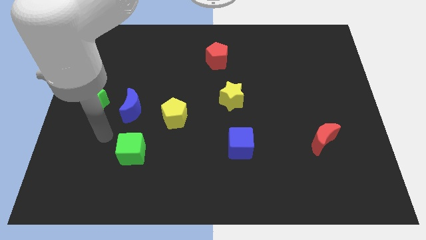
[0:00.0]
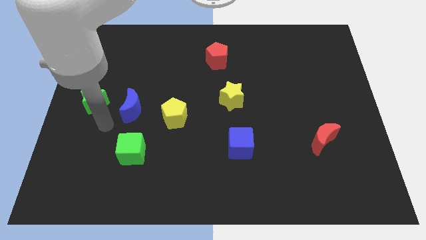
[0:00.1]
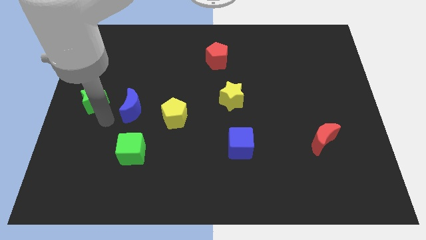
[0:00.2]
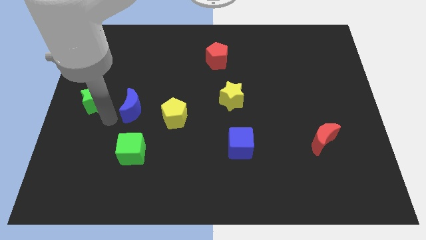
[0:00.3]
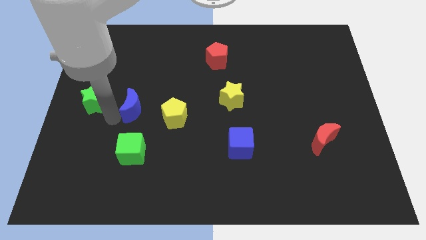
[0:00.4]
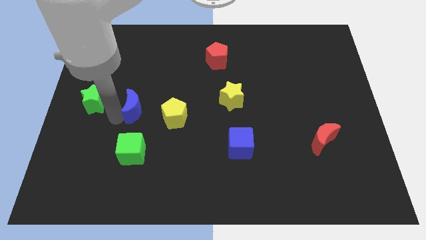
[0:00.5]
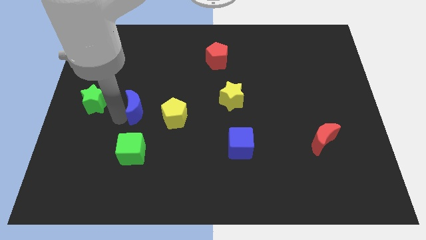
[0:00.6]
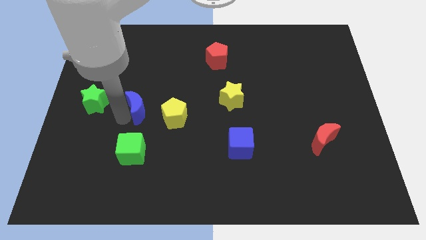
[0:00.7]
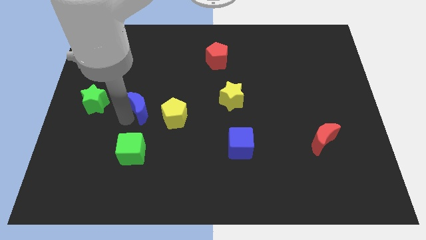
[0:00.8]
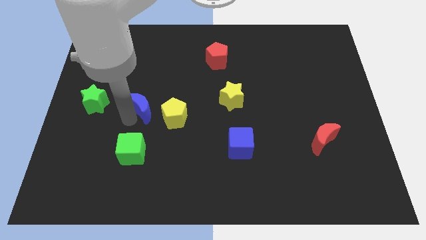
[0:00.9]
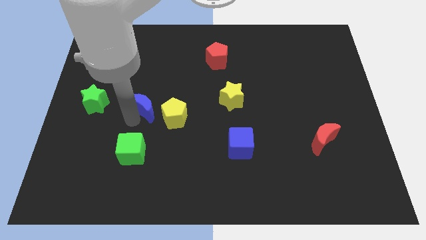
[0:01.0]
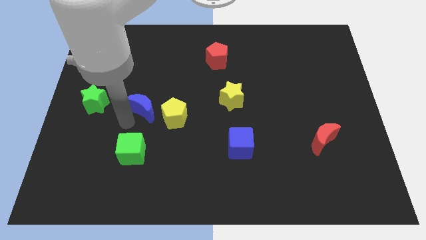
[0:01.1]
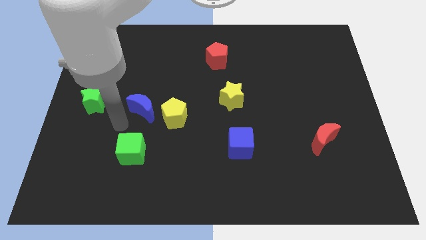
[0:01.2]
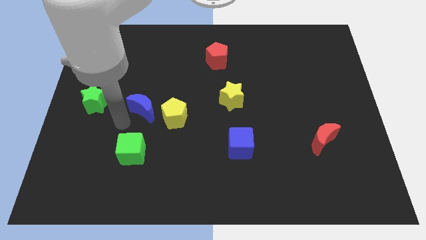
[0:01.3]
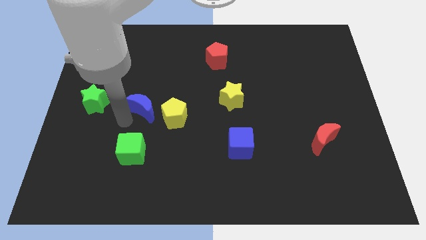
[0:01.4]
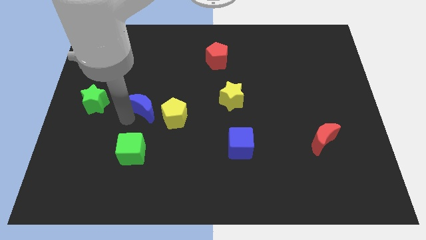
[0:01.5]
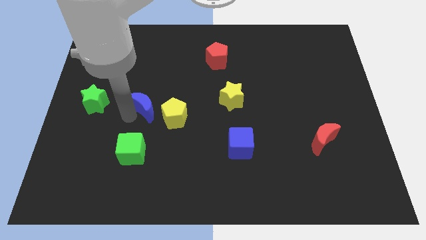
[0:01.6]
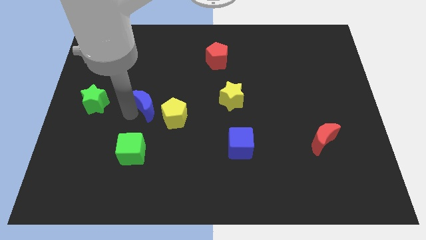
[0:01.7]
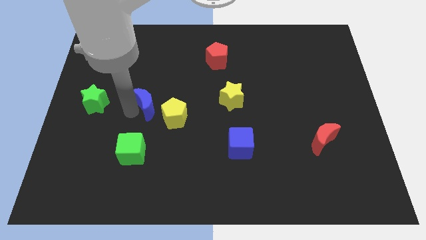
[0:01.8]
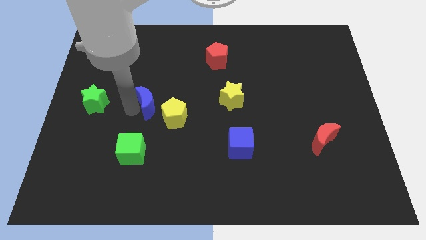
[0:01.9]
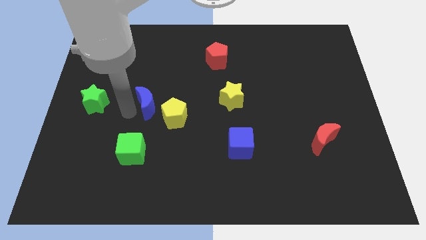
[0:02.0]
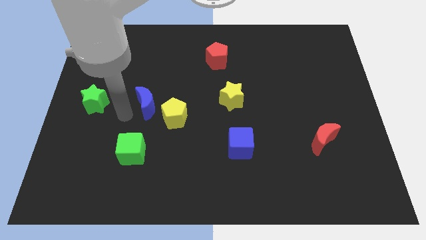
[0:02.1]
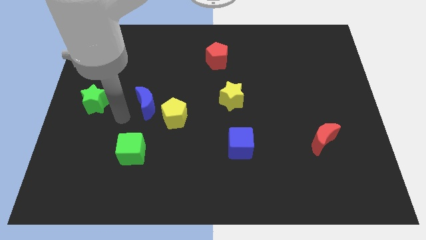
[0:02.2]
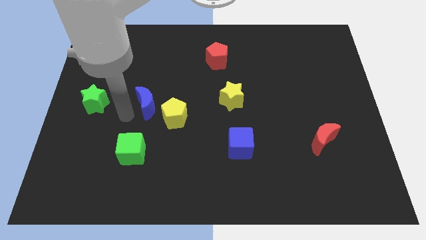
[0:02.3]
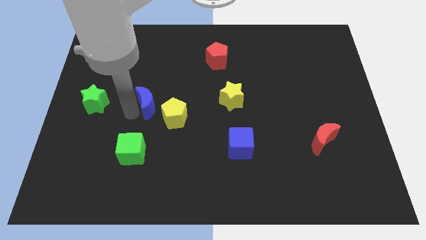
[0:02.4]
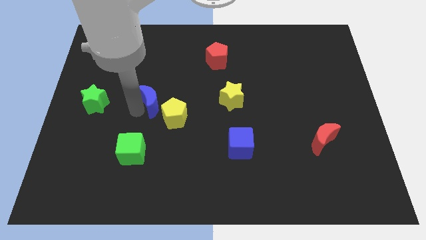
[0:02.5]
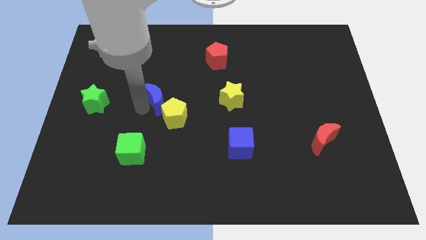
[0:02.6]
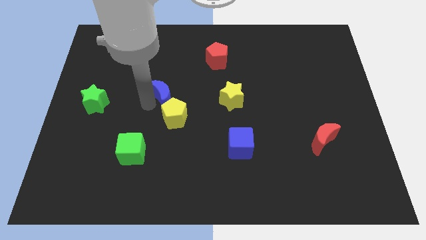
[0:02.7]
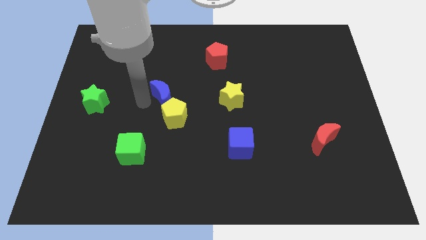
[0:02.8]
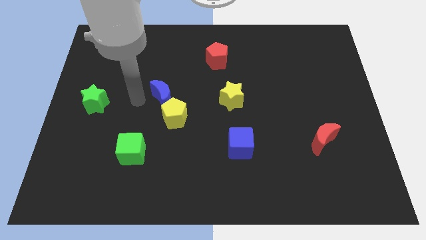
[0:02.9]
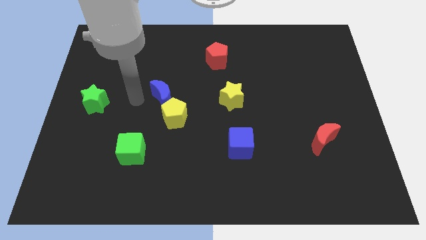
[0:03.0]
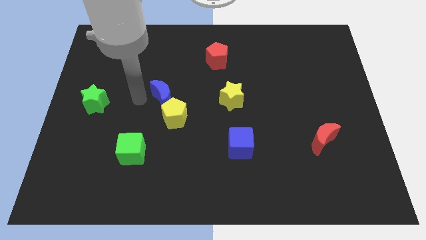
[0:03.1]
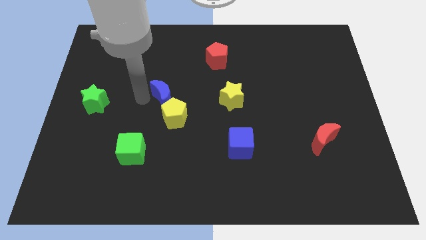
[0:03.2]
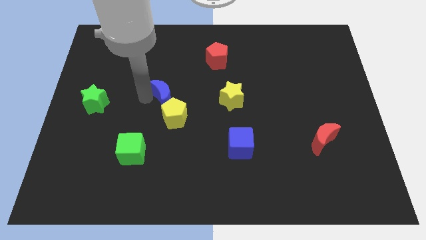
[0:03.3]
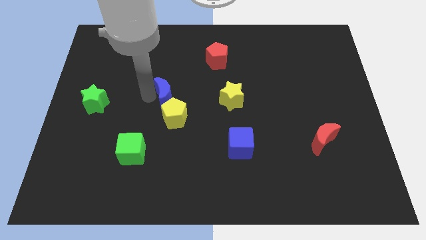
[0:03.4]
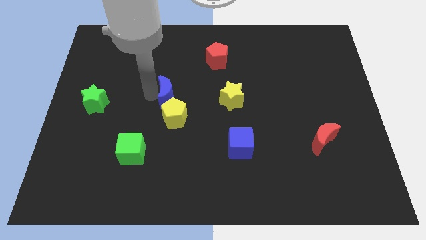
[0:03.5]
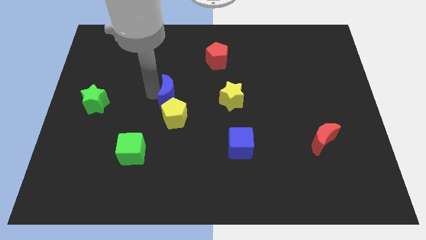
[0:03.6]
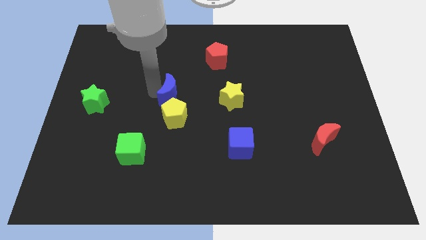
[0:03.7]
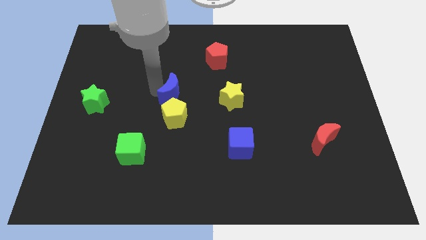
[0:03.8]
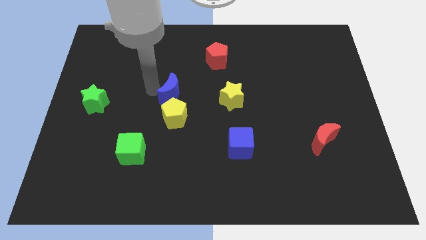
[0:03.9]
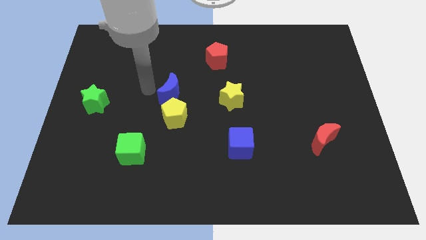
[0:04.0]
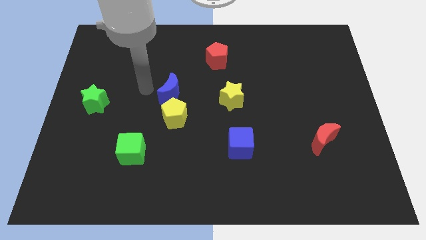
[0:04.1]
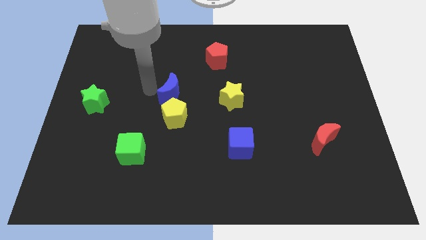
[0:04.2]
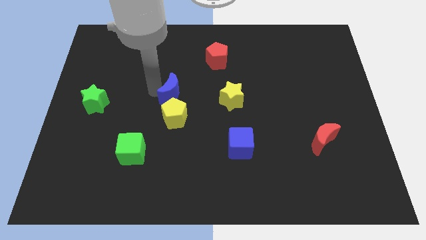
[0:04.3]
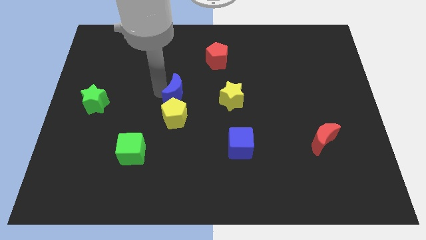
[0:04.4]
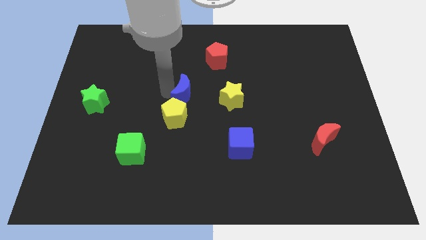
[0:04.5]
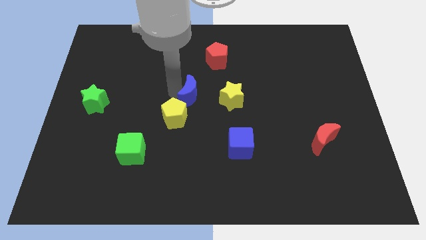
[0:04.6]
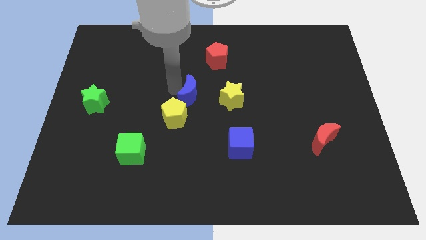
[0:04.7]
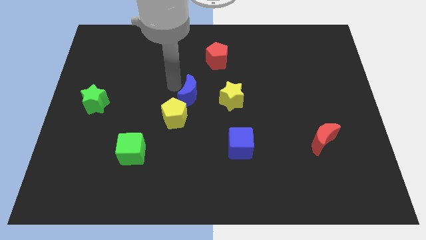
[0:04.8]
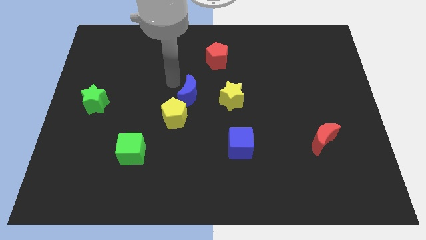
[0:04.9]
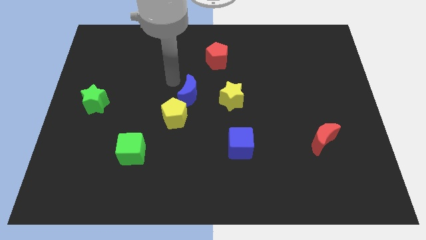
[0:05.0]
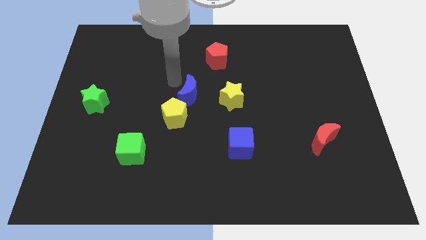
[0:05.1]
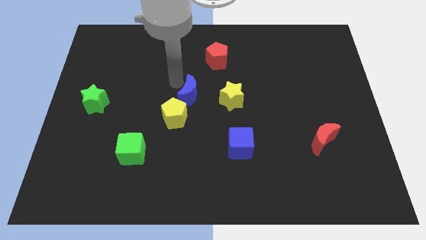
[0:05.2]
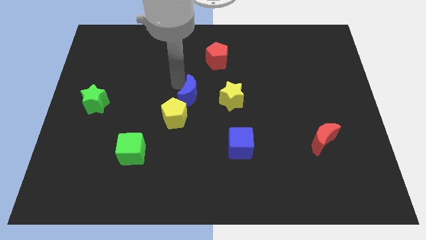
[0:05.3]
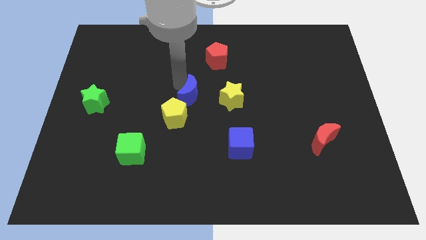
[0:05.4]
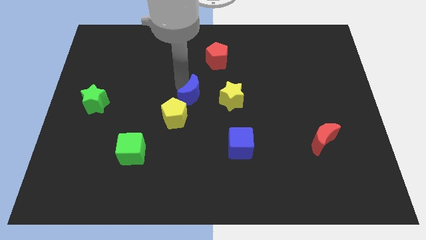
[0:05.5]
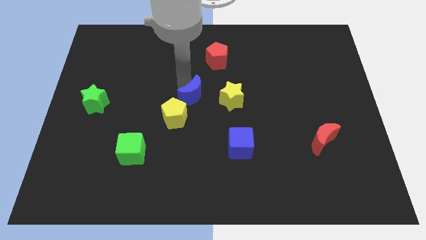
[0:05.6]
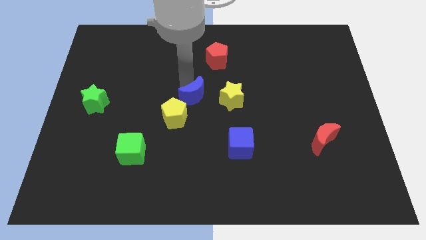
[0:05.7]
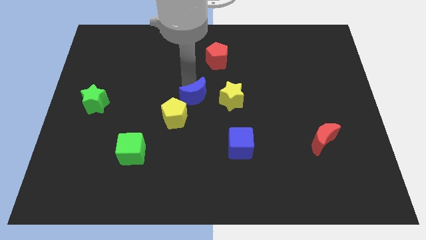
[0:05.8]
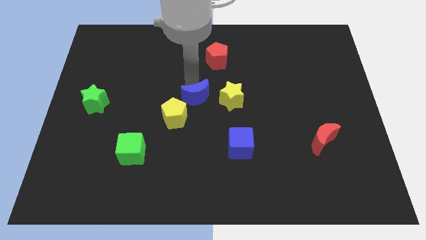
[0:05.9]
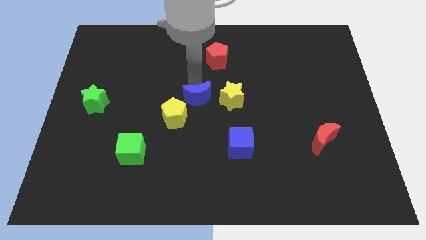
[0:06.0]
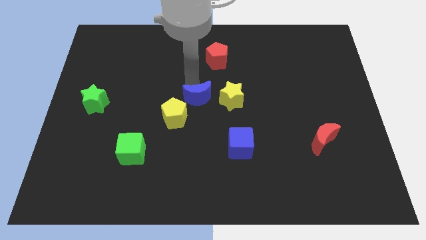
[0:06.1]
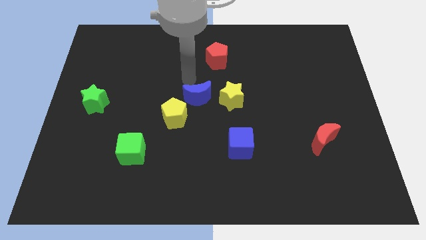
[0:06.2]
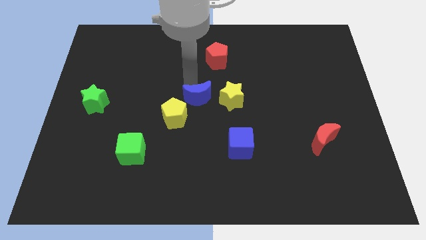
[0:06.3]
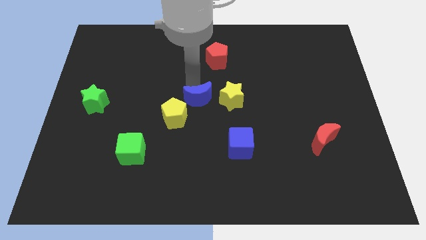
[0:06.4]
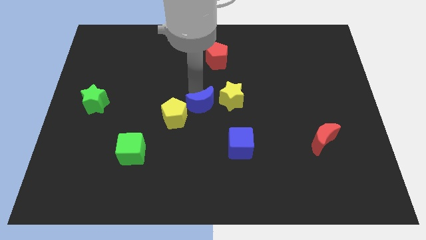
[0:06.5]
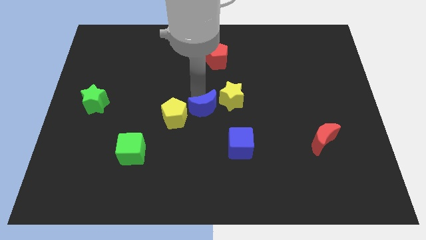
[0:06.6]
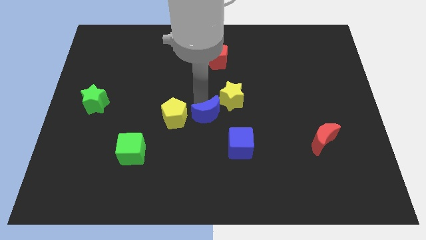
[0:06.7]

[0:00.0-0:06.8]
move the blue moon diagonally up and to the left of the blue cube

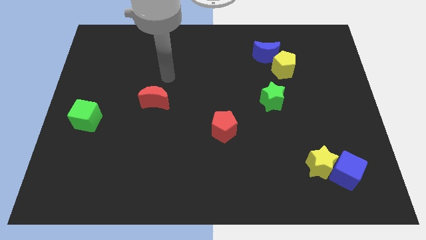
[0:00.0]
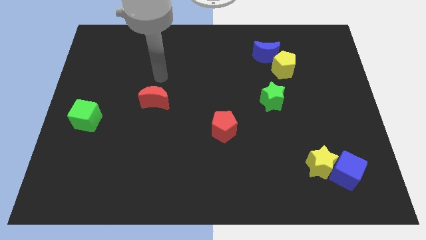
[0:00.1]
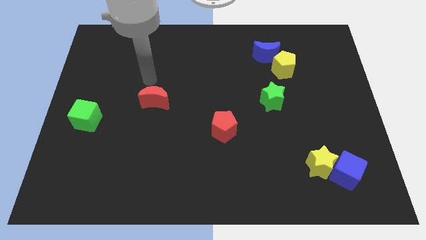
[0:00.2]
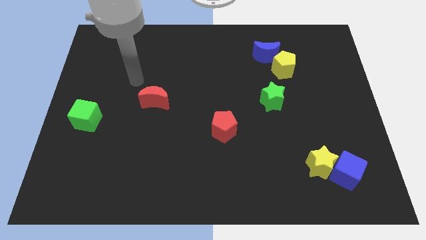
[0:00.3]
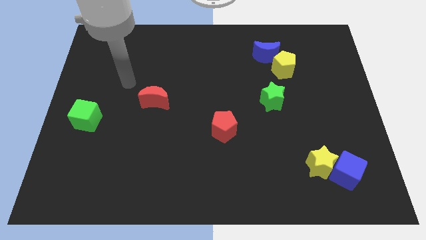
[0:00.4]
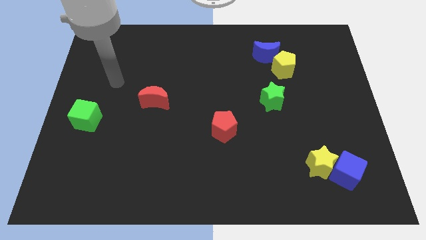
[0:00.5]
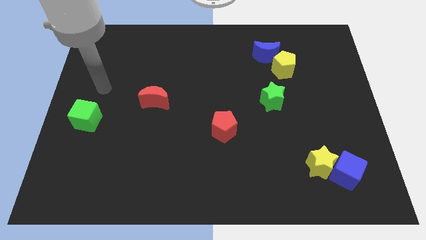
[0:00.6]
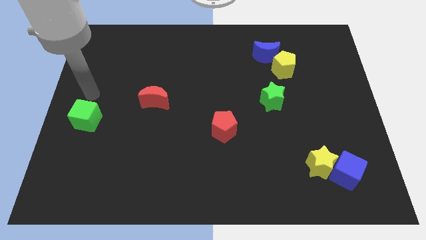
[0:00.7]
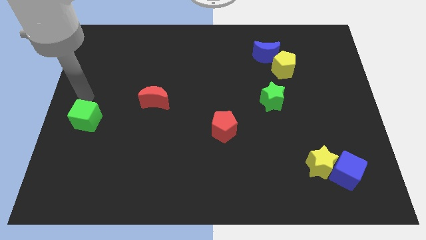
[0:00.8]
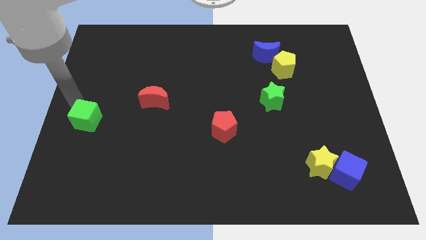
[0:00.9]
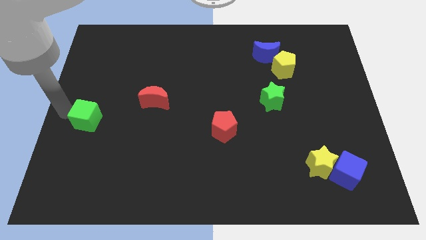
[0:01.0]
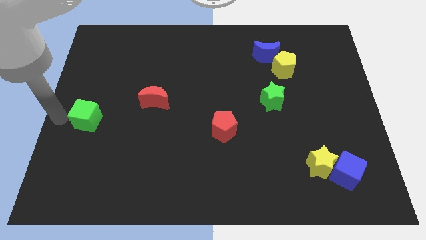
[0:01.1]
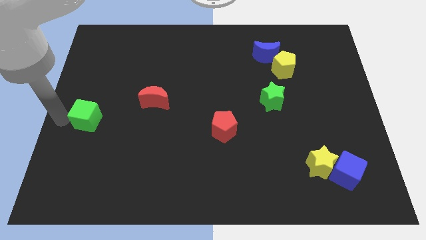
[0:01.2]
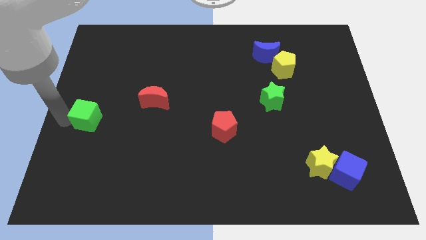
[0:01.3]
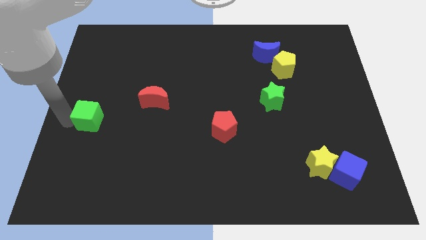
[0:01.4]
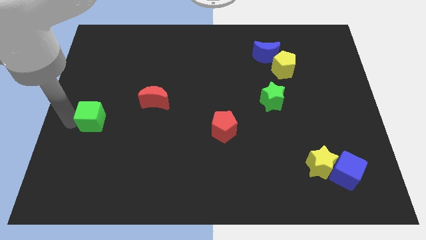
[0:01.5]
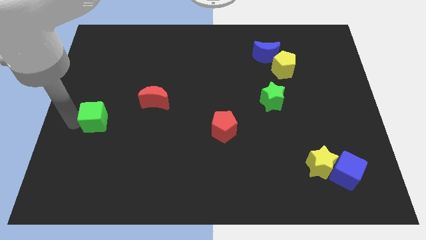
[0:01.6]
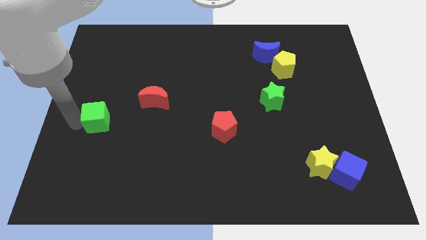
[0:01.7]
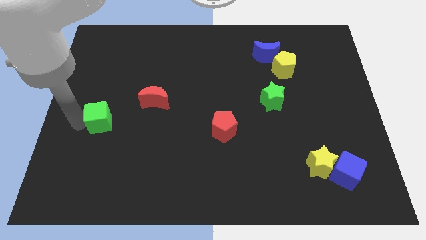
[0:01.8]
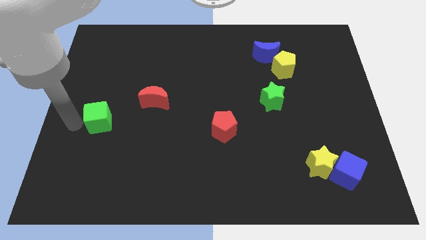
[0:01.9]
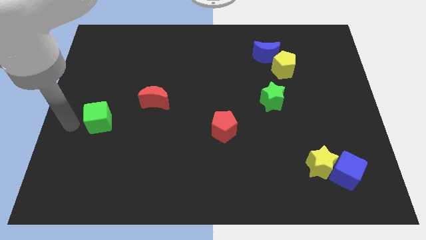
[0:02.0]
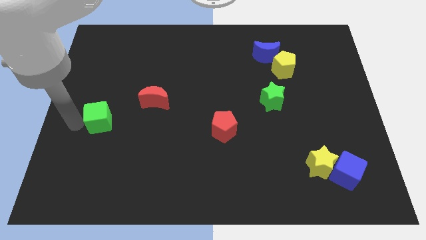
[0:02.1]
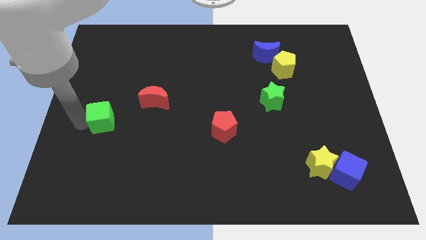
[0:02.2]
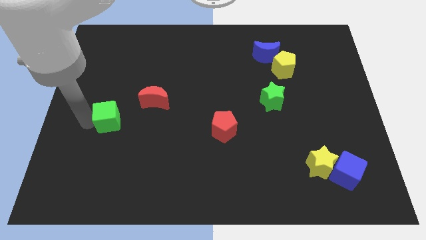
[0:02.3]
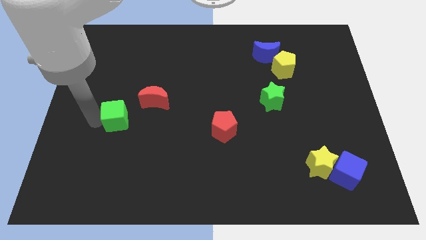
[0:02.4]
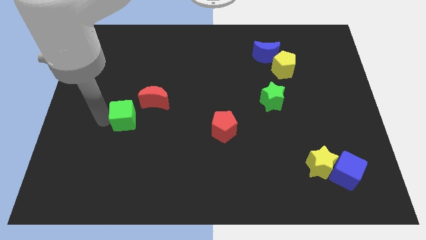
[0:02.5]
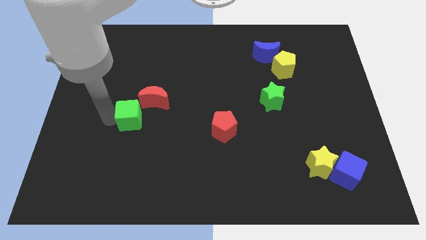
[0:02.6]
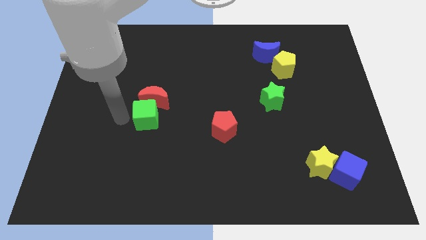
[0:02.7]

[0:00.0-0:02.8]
push the green cube to the bottom right of the red moon
